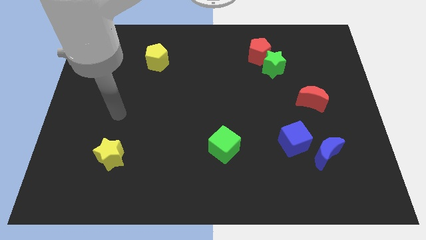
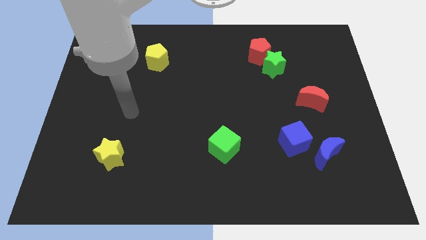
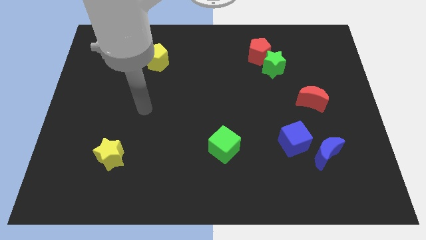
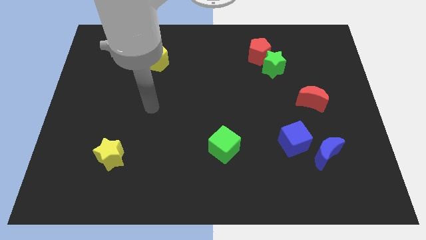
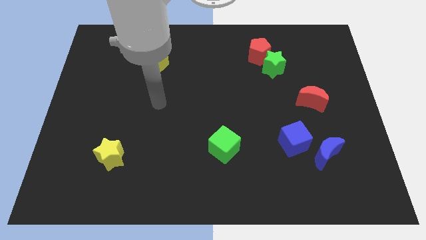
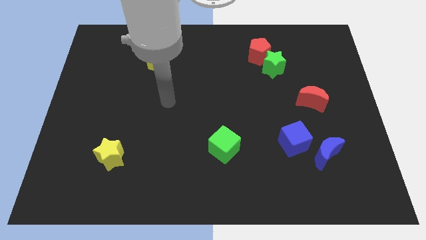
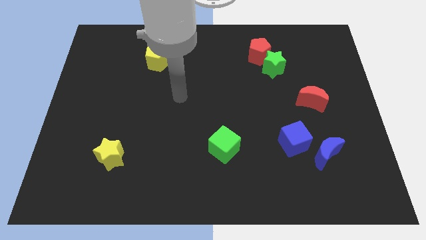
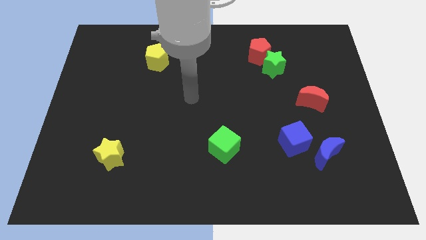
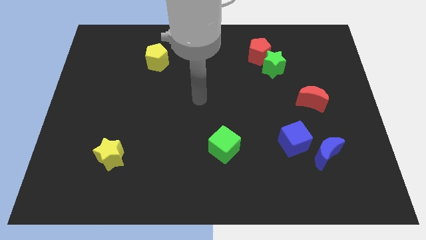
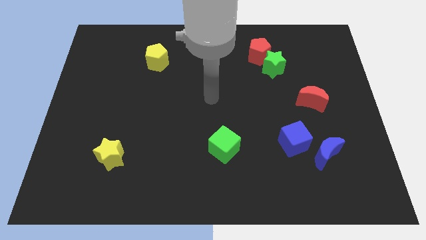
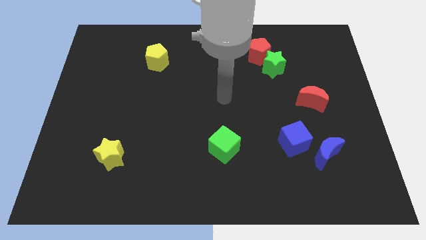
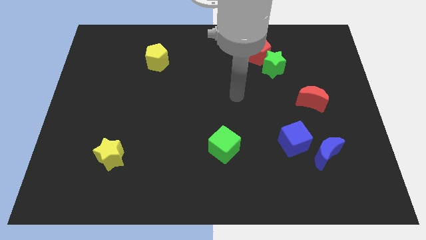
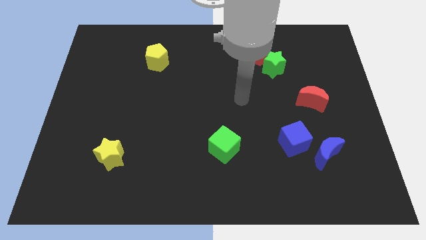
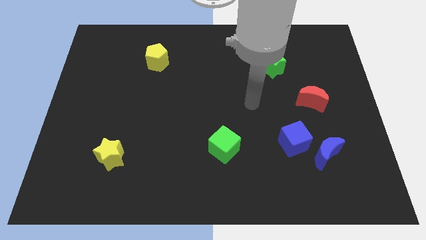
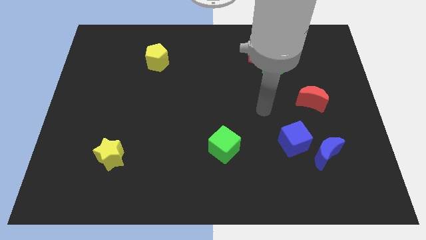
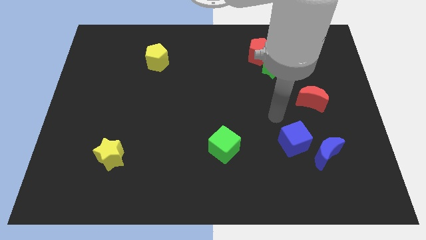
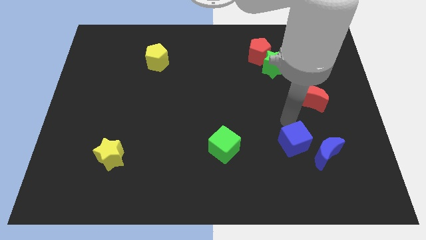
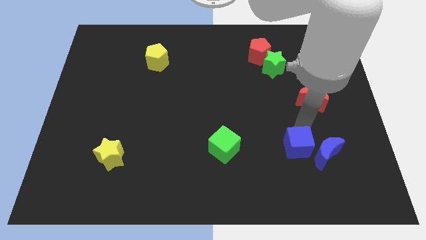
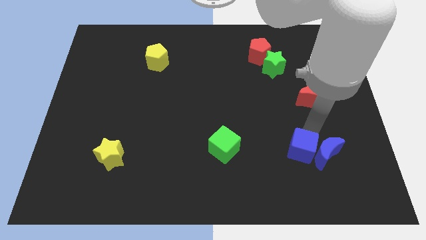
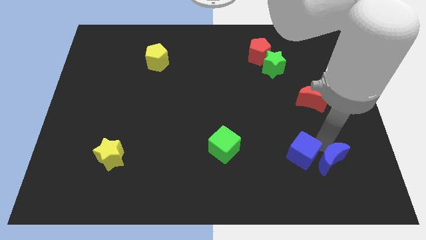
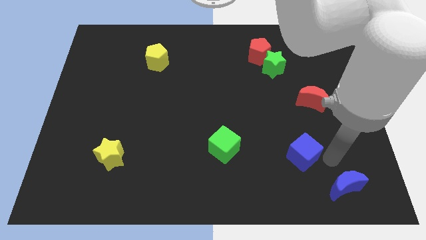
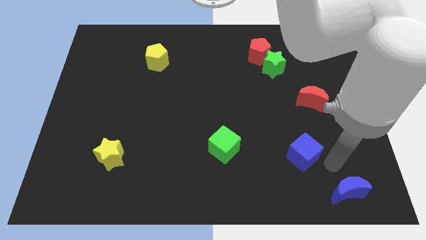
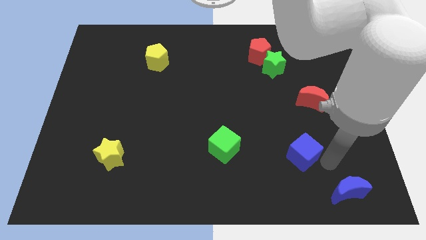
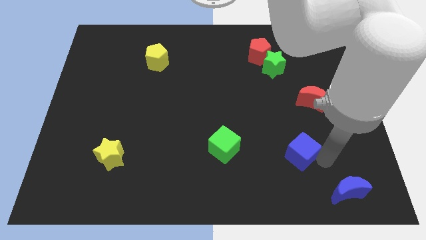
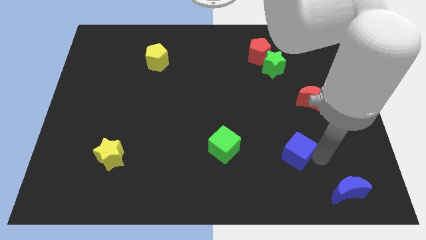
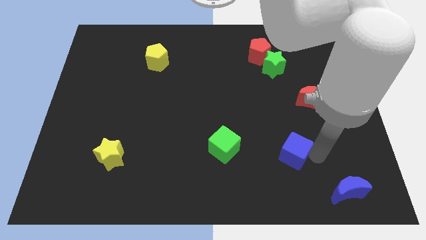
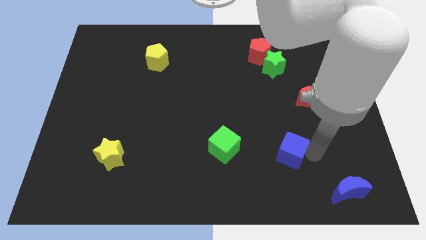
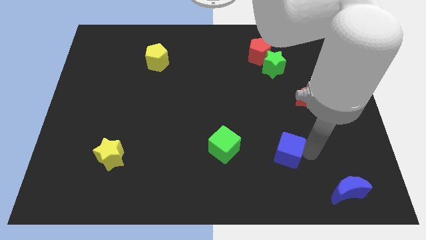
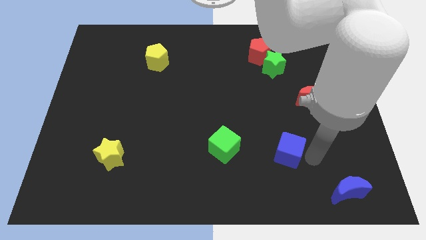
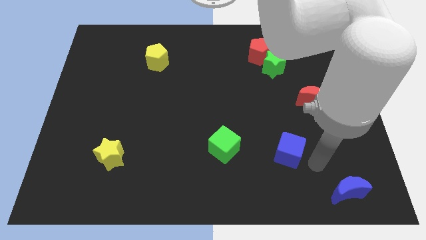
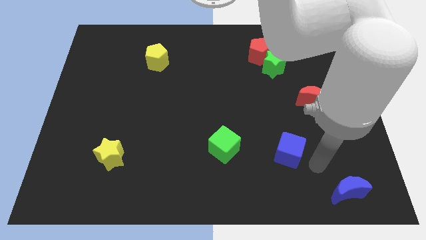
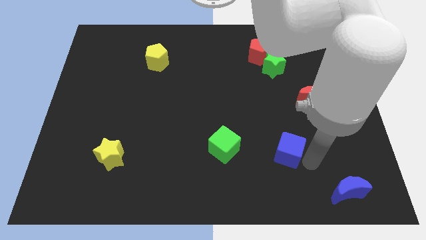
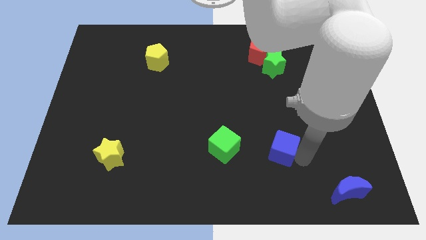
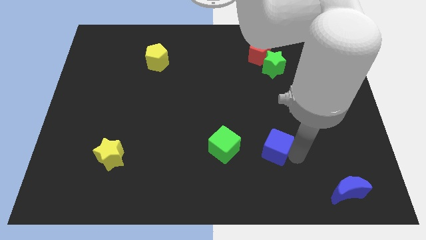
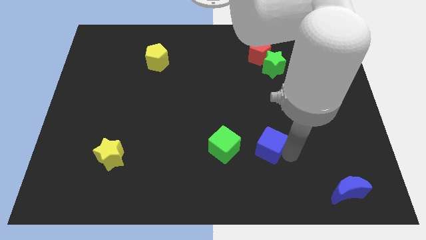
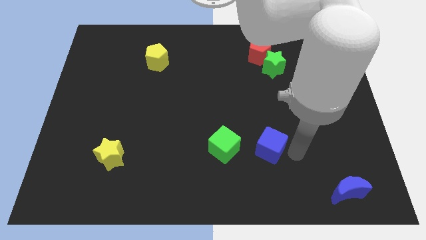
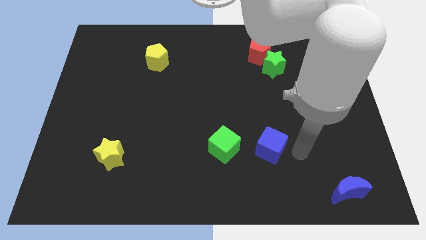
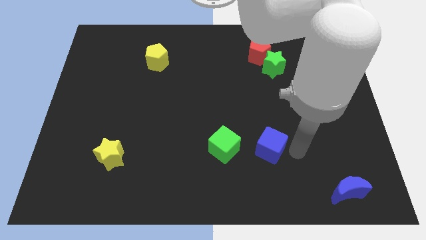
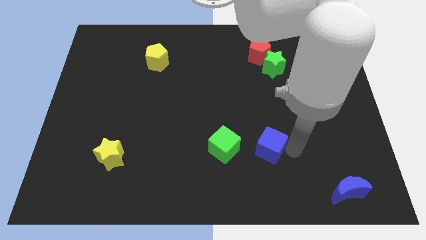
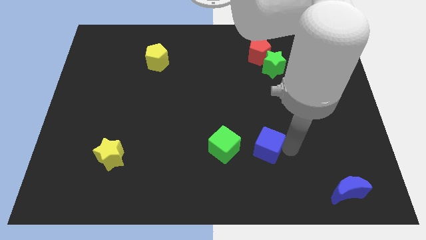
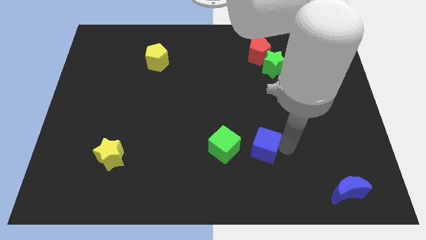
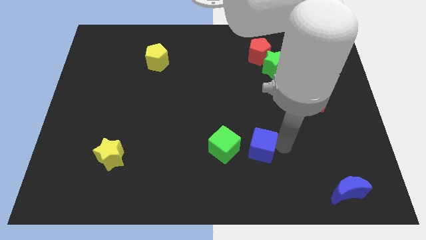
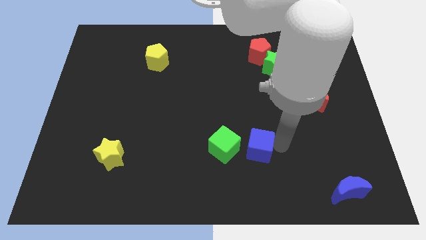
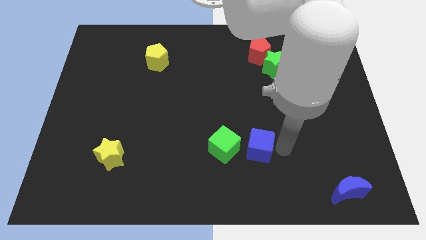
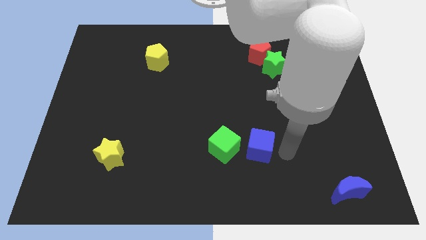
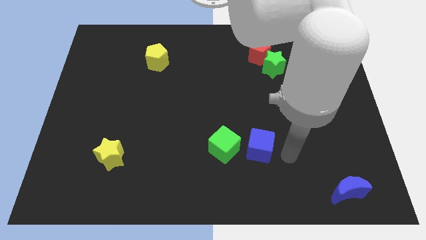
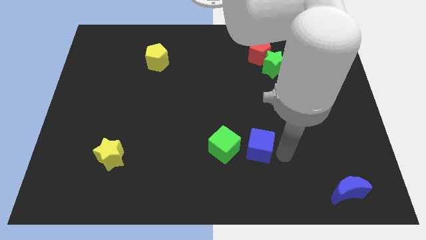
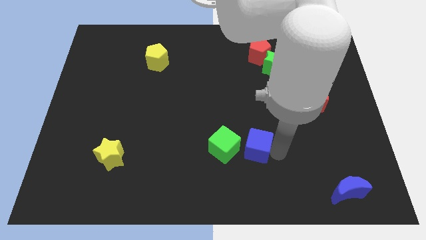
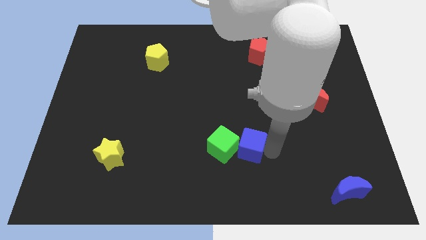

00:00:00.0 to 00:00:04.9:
move the blue cube next to the green cube

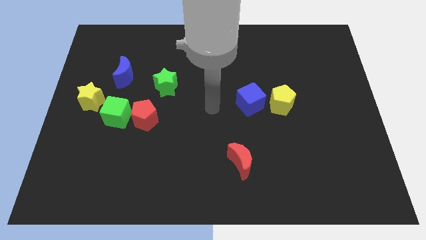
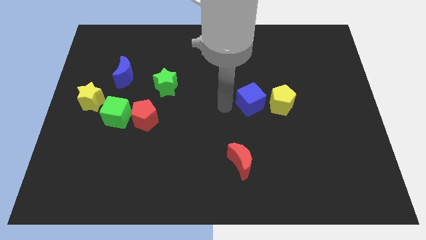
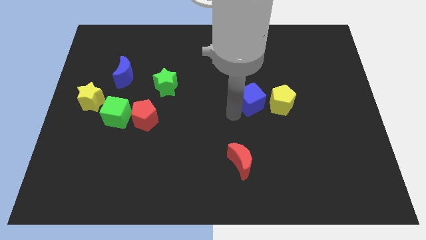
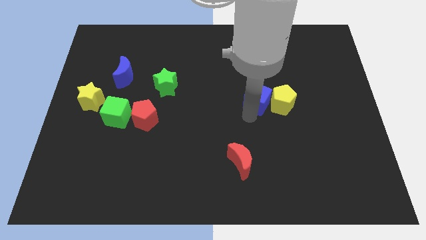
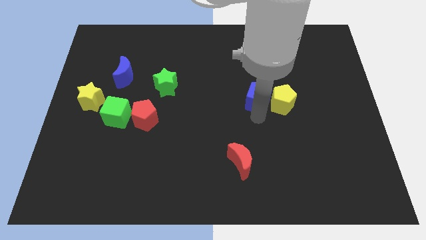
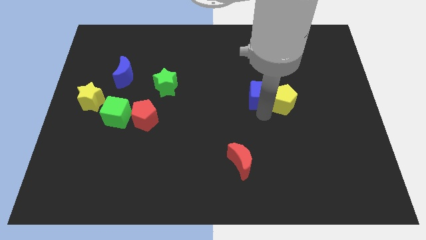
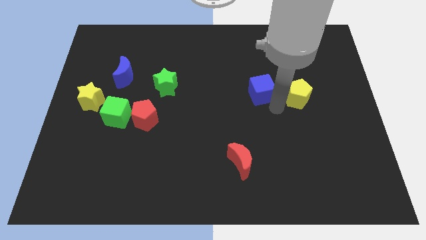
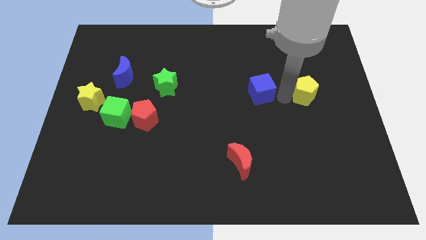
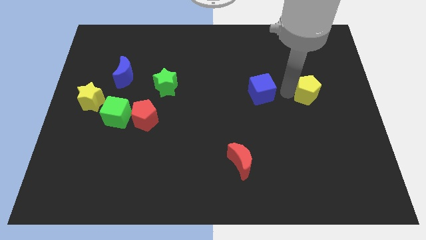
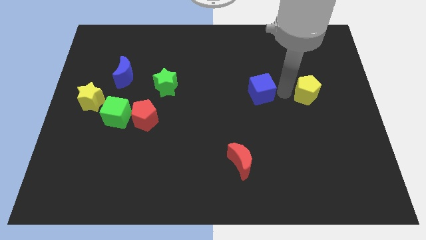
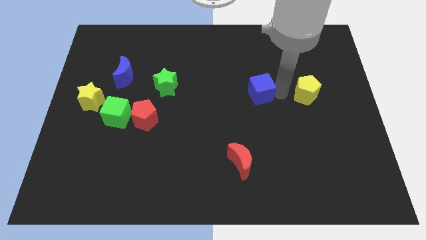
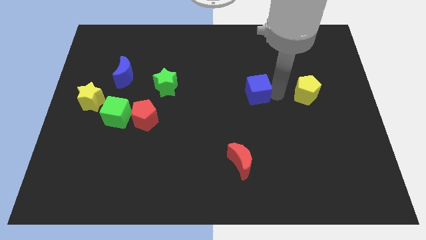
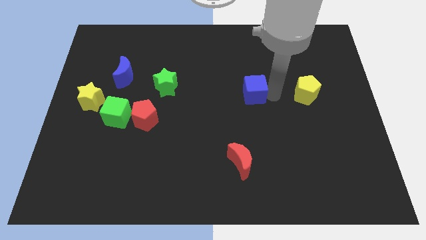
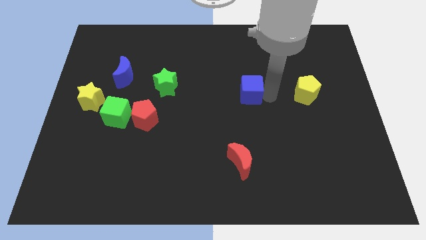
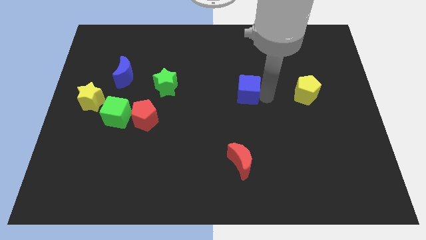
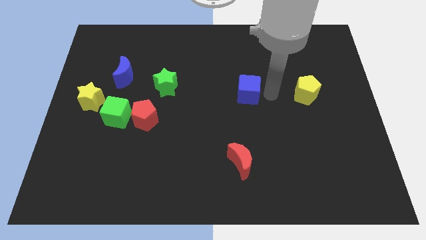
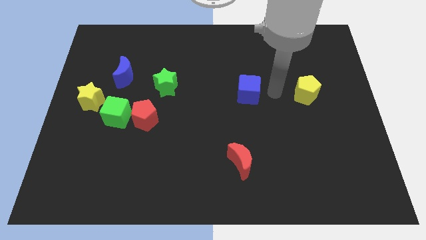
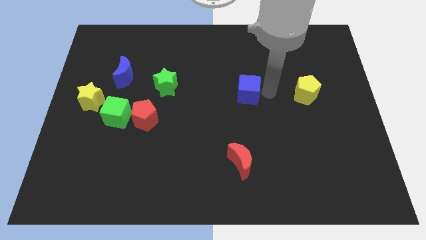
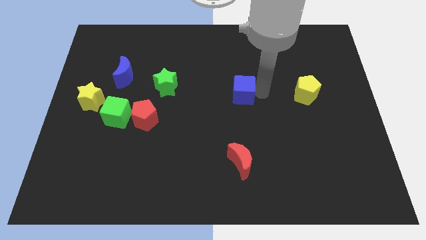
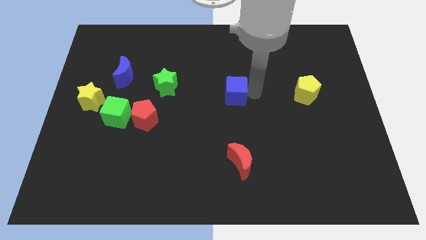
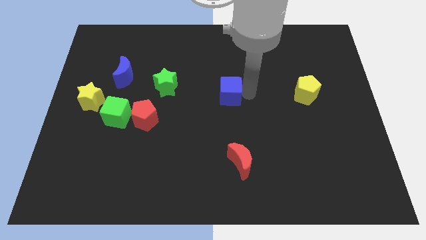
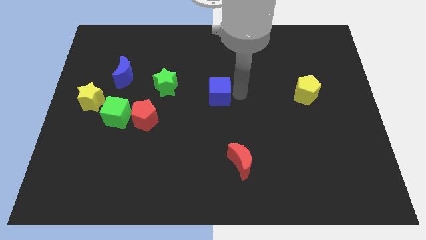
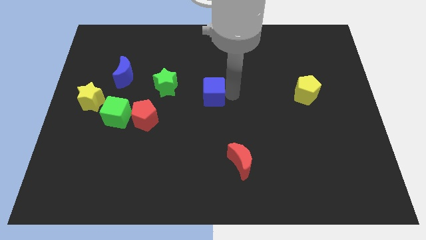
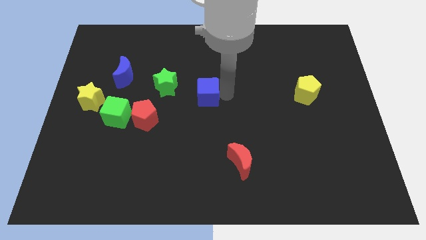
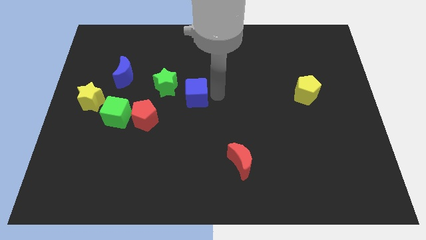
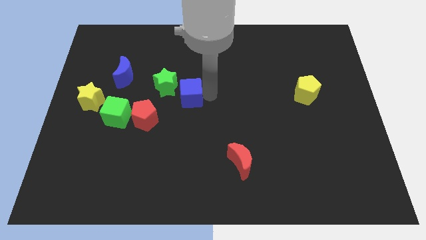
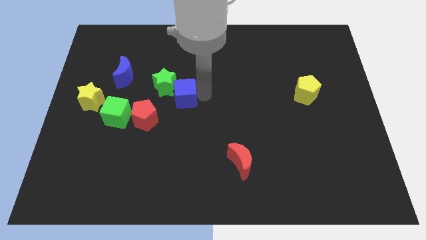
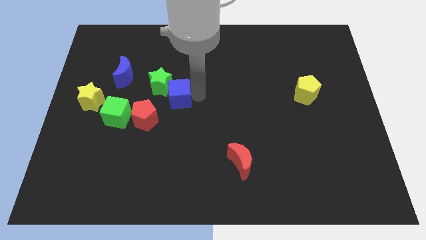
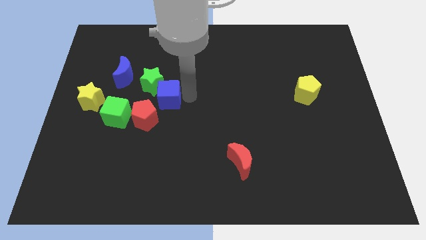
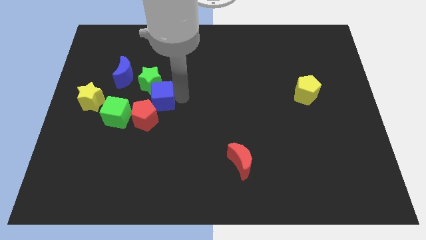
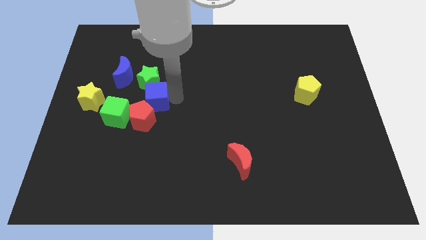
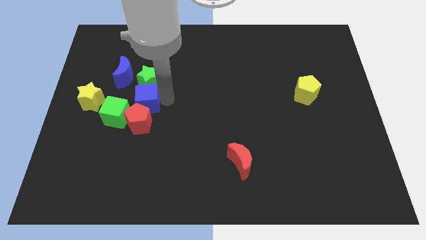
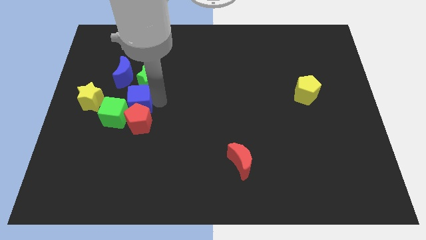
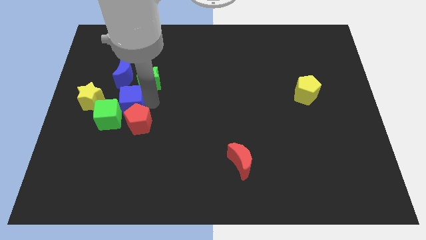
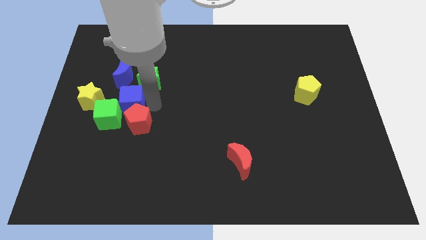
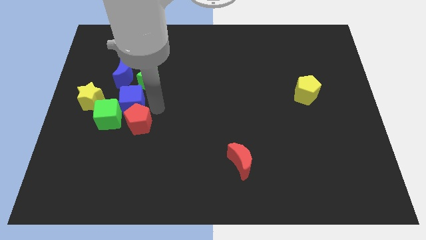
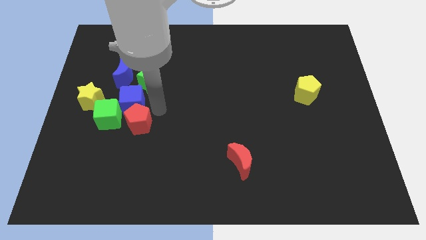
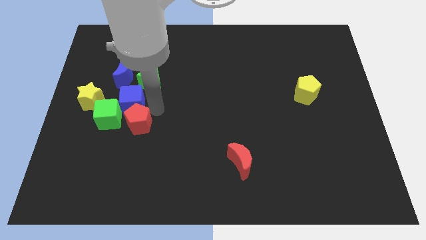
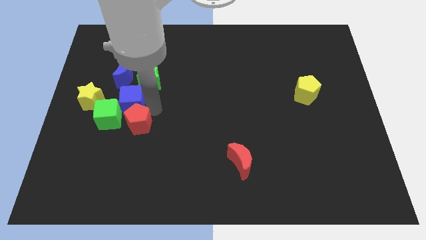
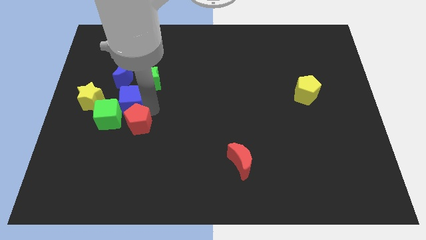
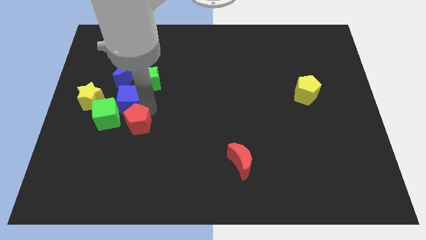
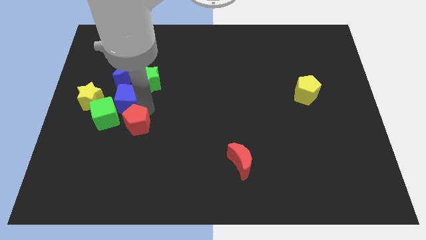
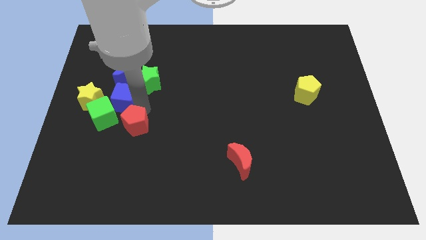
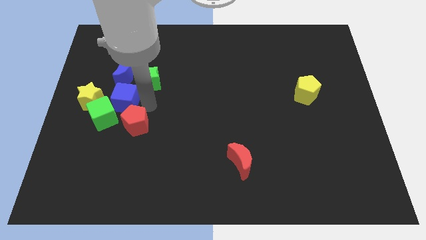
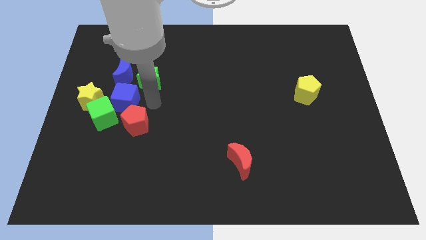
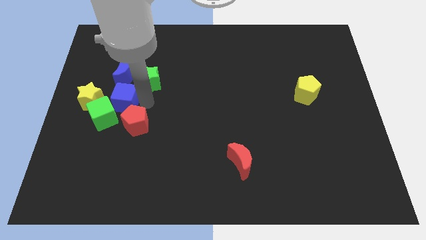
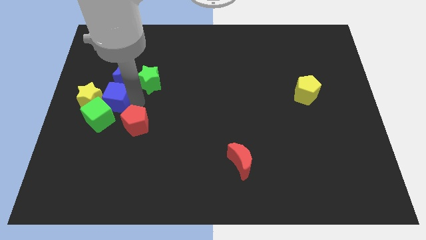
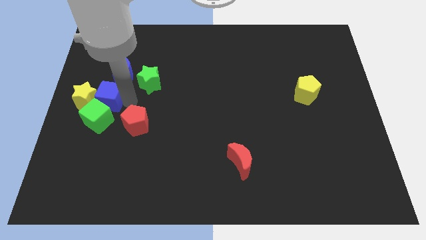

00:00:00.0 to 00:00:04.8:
put the blue cube next to the yellow star
